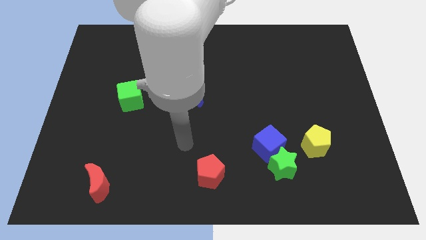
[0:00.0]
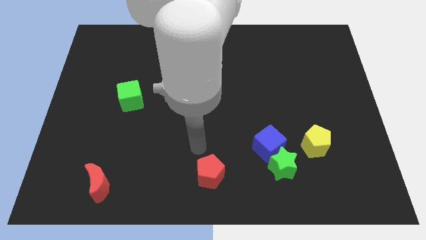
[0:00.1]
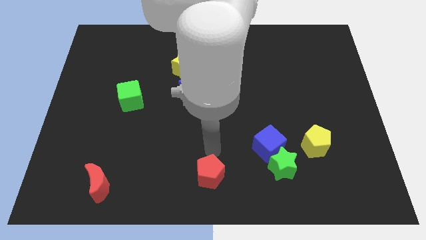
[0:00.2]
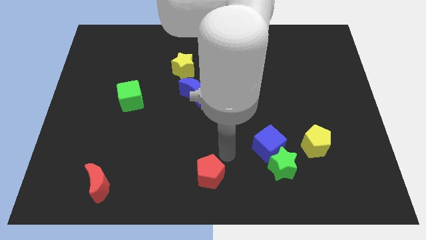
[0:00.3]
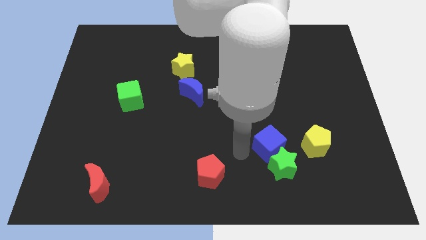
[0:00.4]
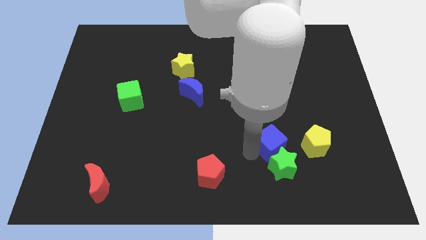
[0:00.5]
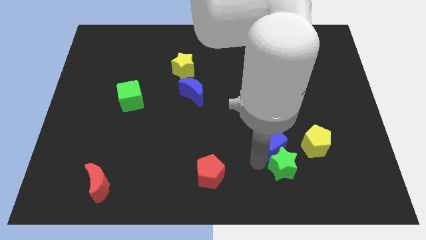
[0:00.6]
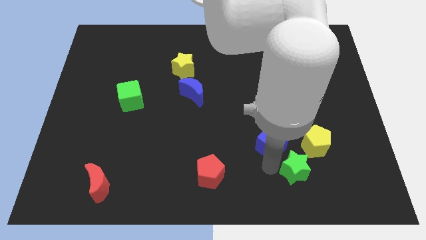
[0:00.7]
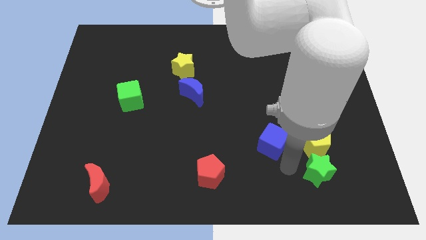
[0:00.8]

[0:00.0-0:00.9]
move the blue cube away from the green star

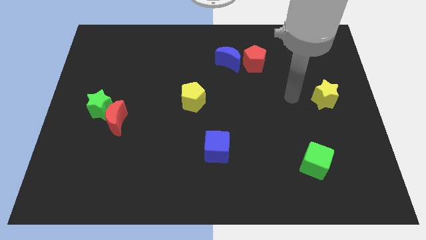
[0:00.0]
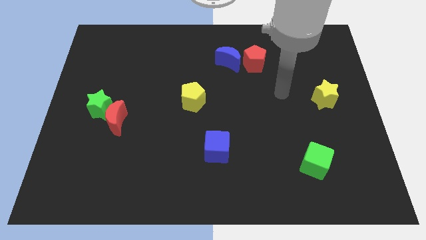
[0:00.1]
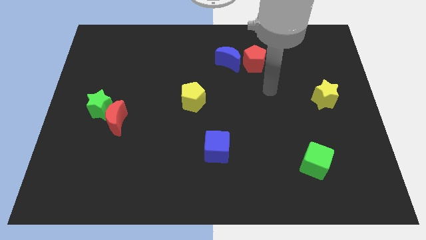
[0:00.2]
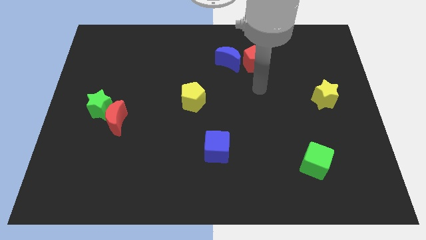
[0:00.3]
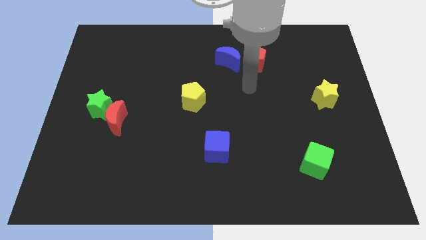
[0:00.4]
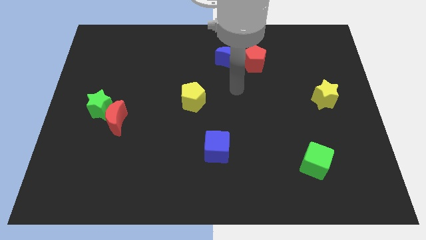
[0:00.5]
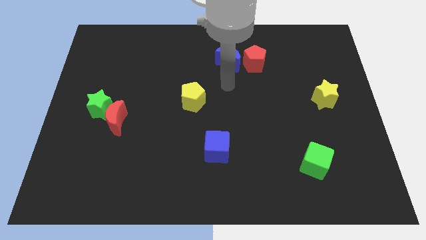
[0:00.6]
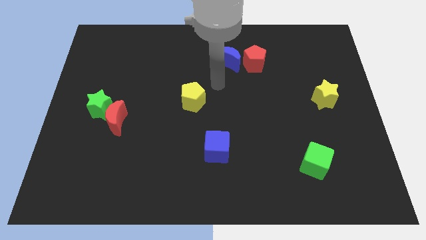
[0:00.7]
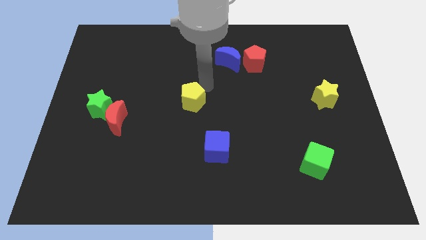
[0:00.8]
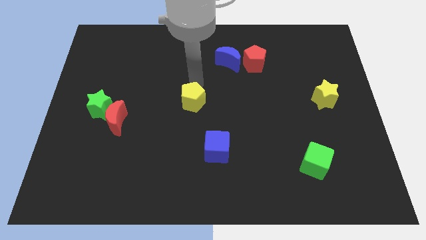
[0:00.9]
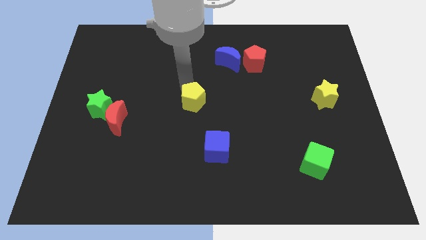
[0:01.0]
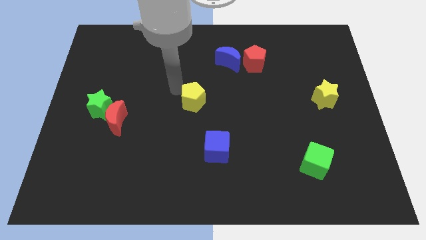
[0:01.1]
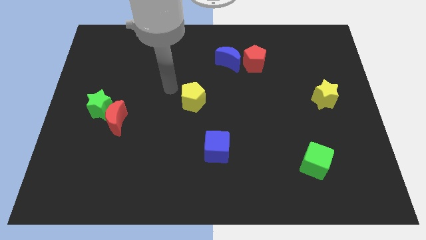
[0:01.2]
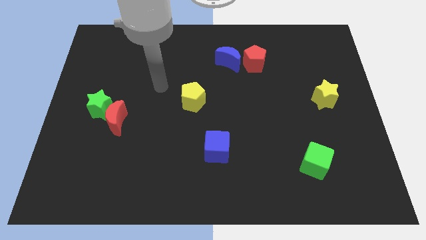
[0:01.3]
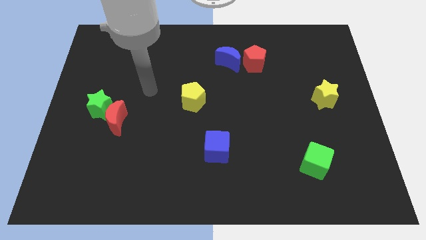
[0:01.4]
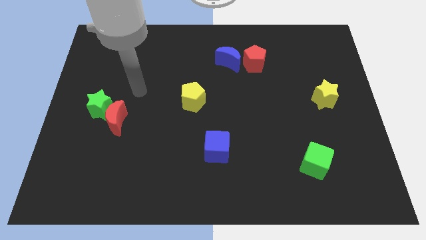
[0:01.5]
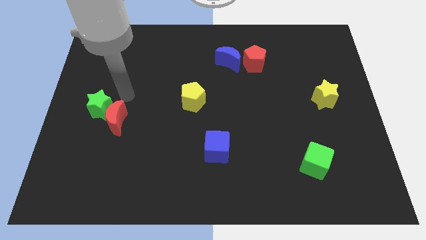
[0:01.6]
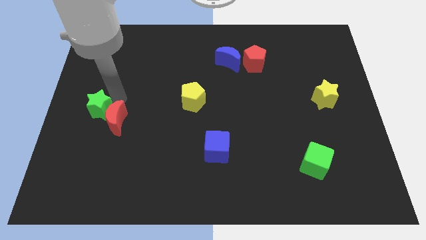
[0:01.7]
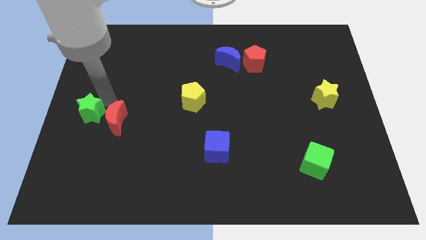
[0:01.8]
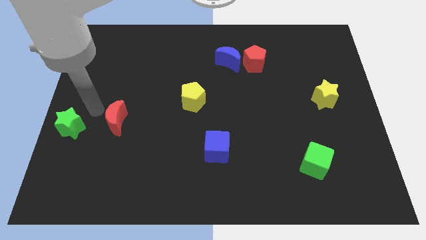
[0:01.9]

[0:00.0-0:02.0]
pull the red moon apart from the green star

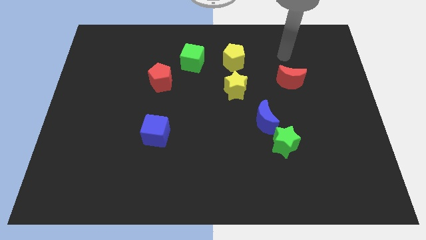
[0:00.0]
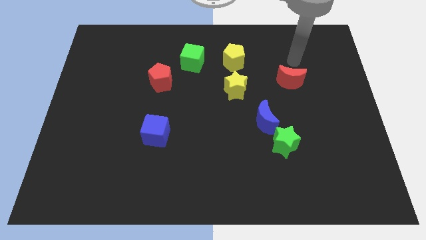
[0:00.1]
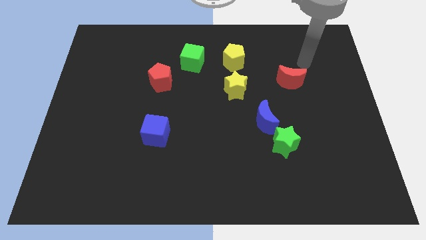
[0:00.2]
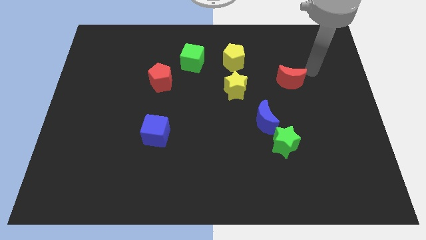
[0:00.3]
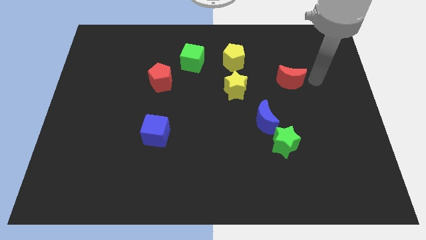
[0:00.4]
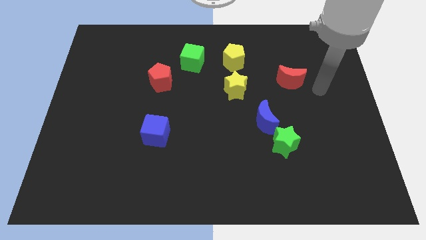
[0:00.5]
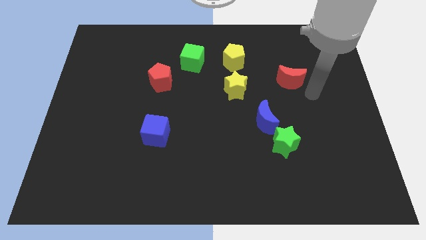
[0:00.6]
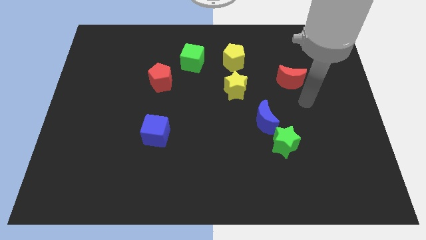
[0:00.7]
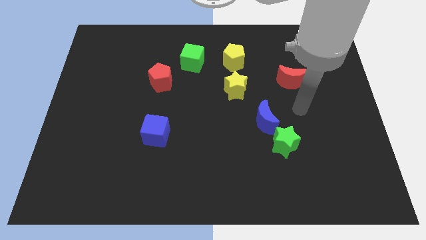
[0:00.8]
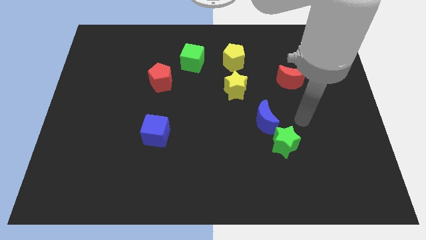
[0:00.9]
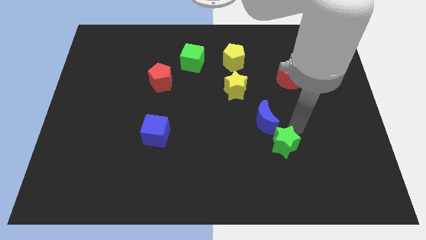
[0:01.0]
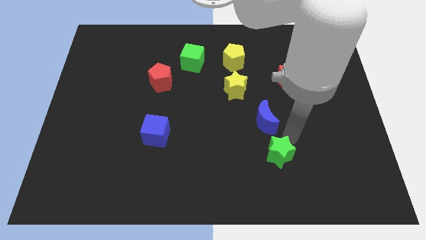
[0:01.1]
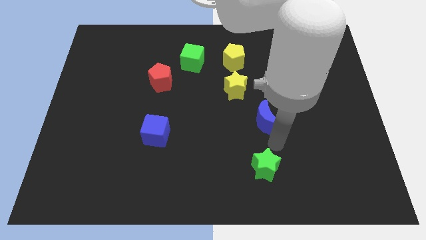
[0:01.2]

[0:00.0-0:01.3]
move the blue moon away from the green star

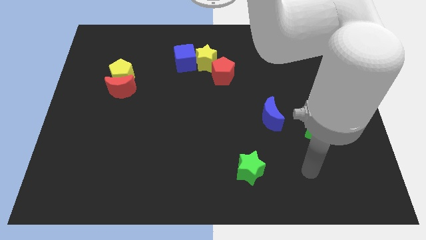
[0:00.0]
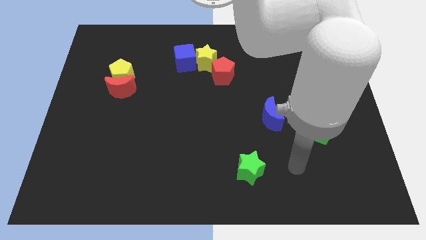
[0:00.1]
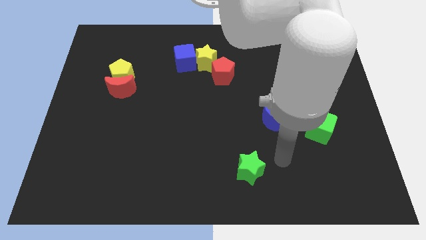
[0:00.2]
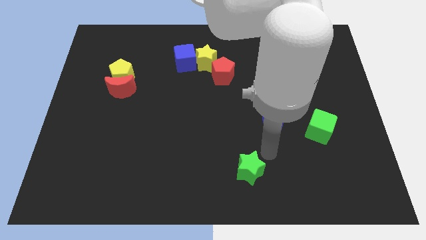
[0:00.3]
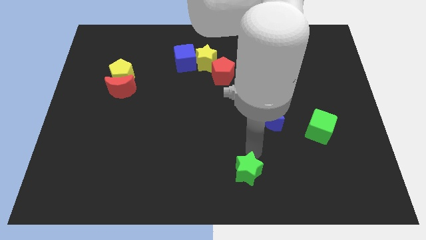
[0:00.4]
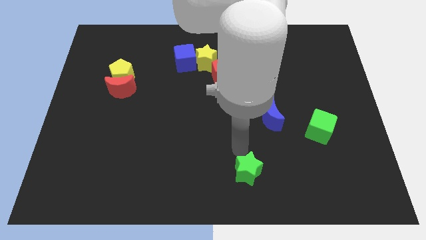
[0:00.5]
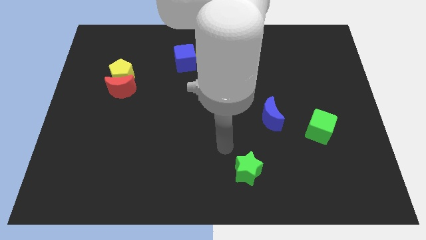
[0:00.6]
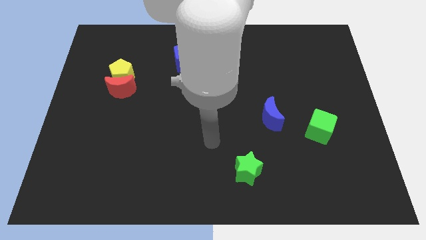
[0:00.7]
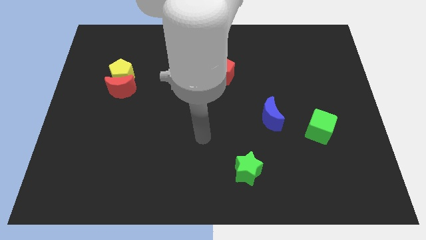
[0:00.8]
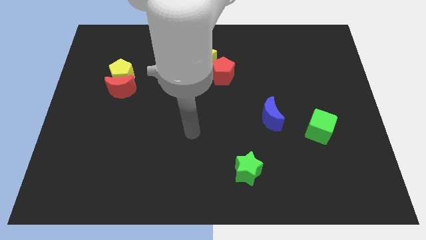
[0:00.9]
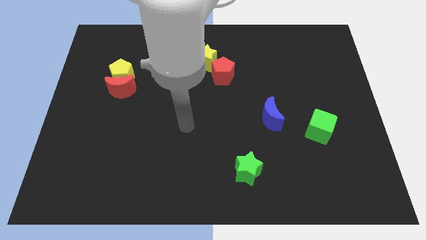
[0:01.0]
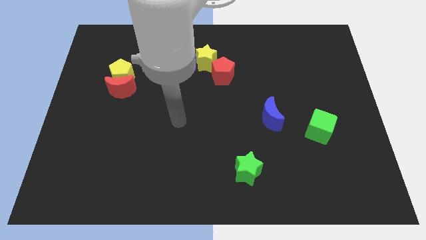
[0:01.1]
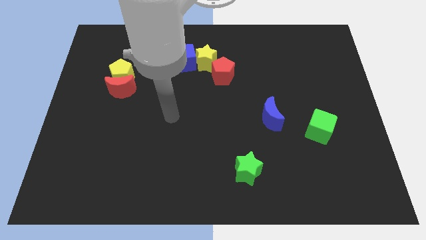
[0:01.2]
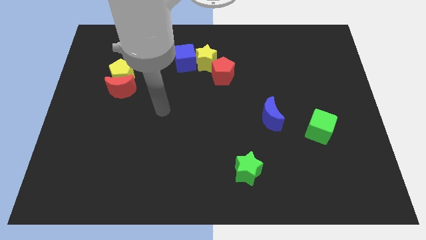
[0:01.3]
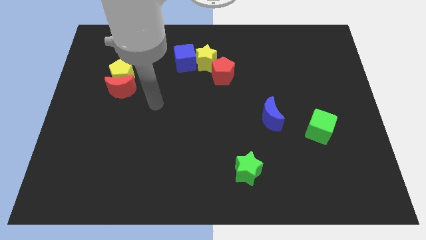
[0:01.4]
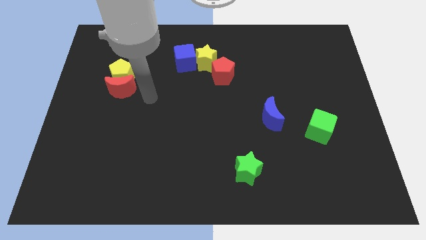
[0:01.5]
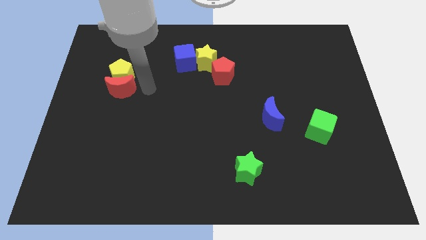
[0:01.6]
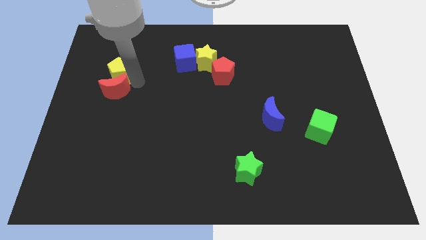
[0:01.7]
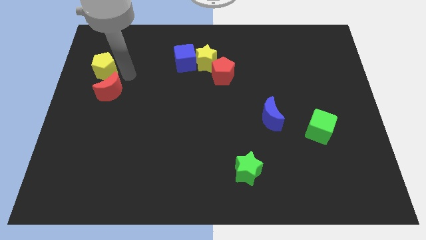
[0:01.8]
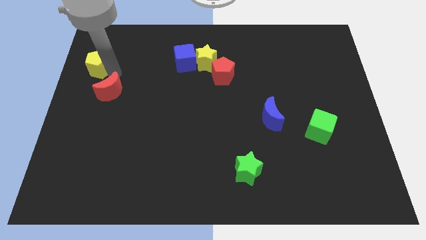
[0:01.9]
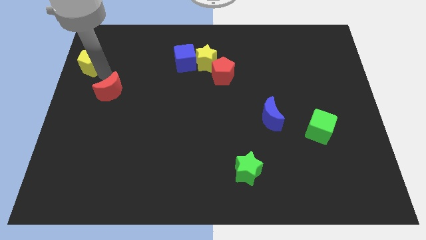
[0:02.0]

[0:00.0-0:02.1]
move the red moon away from the yellow pentagon

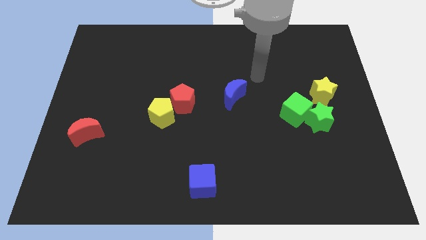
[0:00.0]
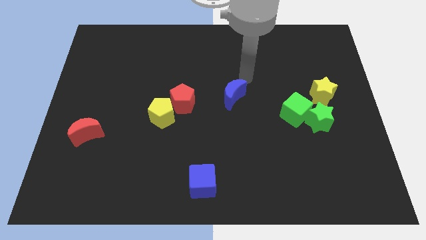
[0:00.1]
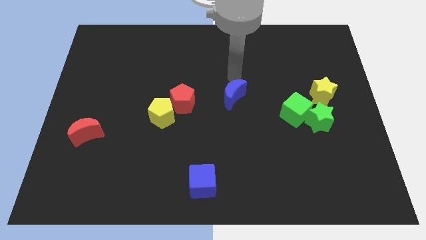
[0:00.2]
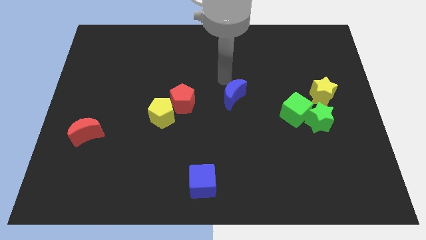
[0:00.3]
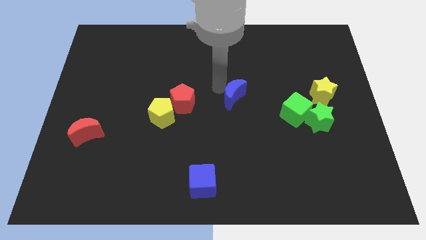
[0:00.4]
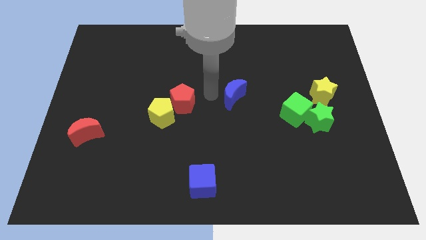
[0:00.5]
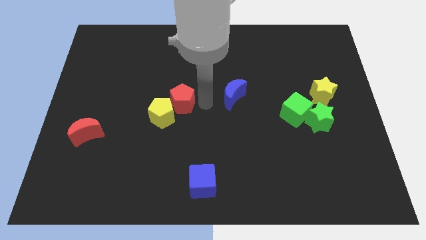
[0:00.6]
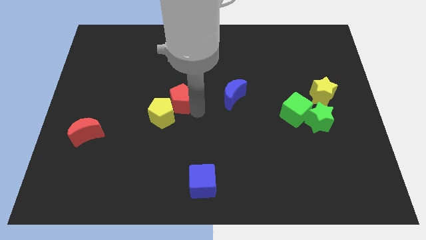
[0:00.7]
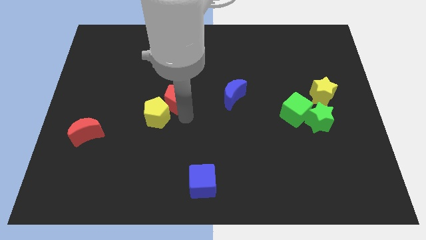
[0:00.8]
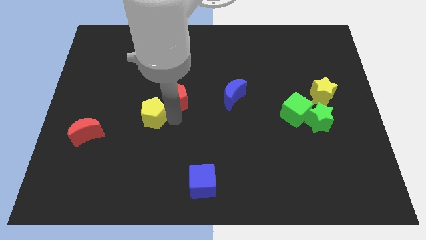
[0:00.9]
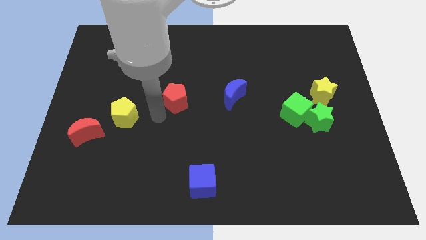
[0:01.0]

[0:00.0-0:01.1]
move the red pentagon away from the yellow pentagon

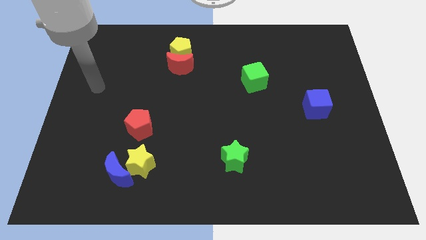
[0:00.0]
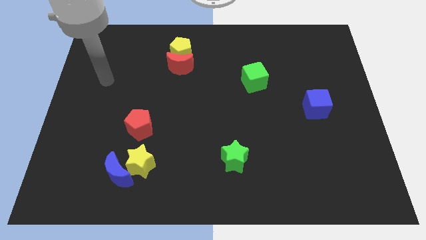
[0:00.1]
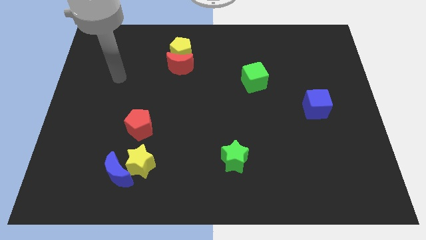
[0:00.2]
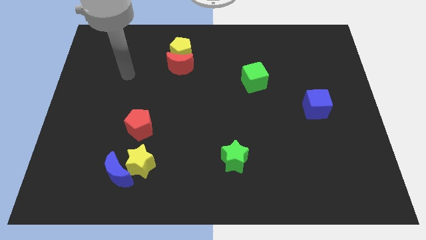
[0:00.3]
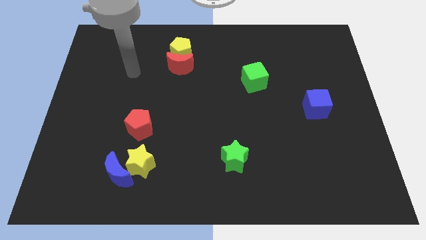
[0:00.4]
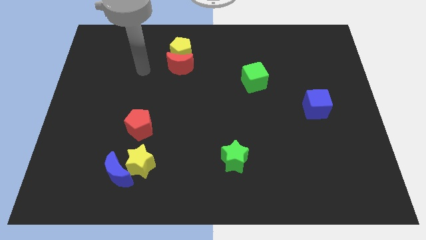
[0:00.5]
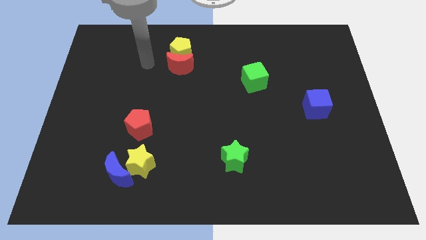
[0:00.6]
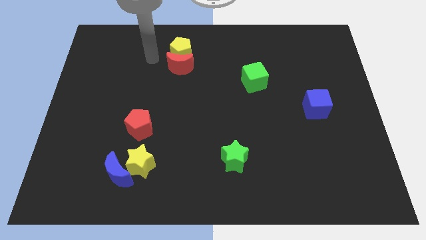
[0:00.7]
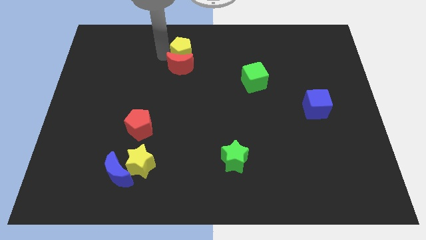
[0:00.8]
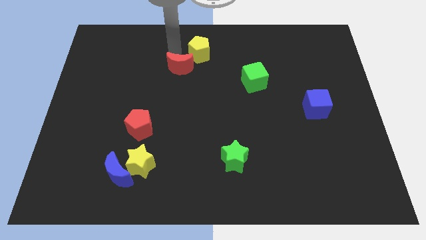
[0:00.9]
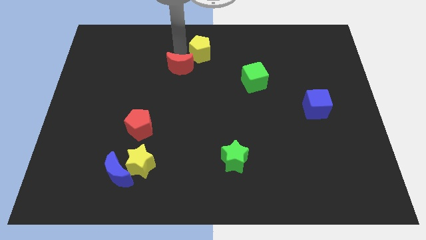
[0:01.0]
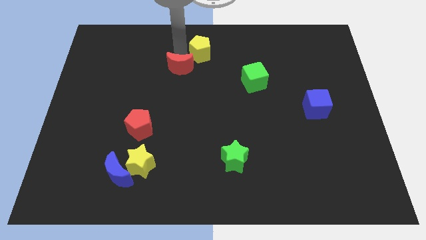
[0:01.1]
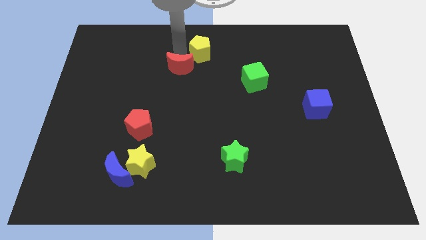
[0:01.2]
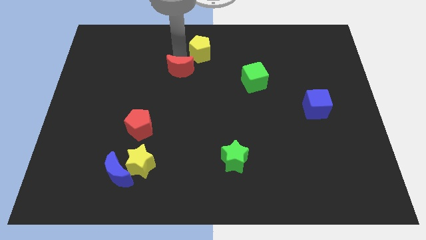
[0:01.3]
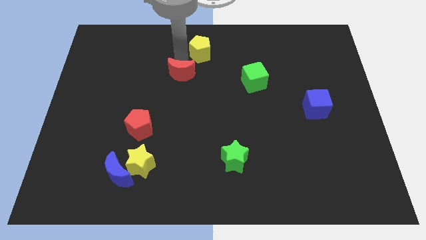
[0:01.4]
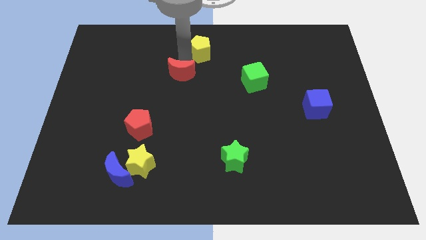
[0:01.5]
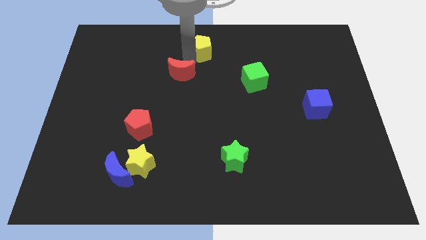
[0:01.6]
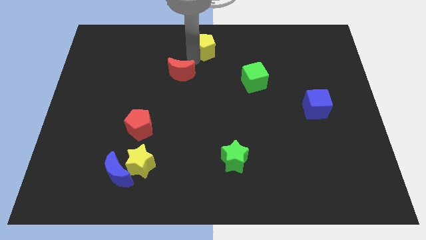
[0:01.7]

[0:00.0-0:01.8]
pull the red moon apart from the yellow pentagon
